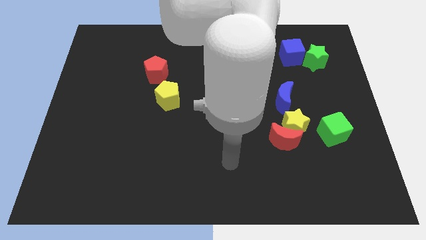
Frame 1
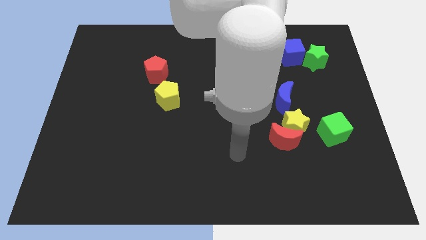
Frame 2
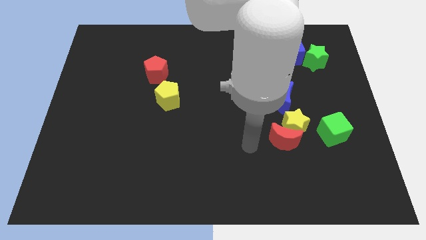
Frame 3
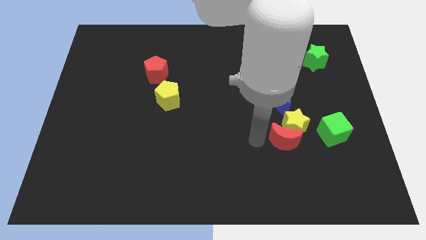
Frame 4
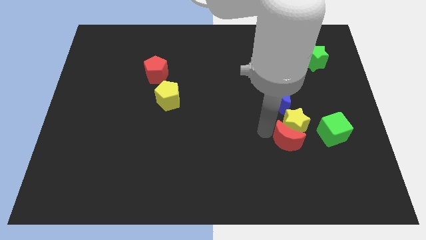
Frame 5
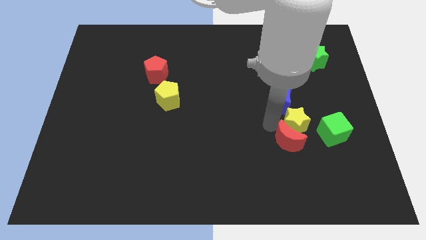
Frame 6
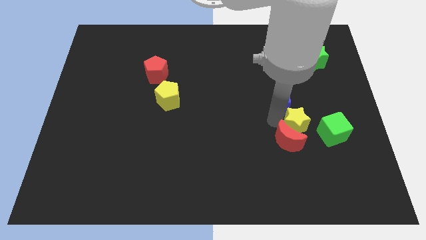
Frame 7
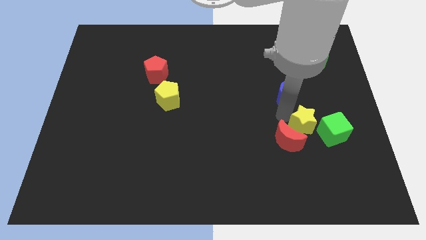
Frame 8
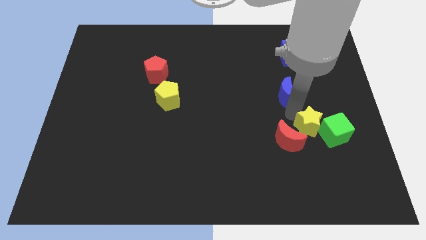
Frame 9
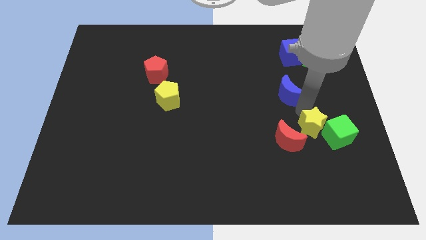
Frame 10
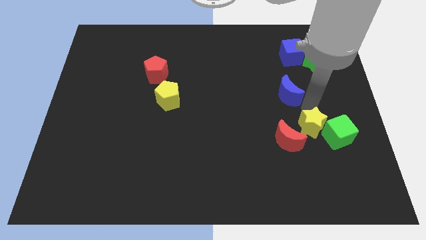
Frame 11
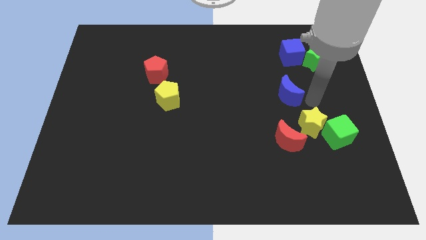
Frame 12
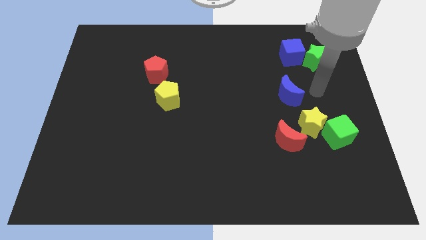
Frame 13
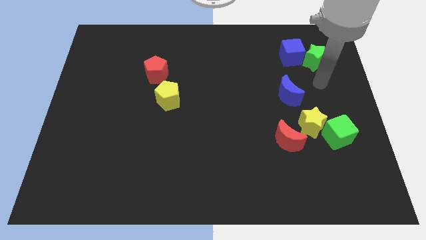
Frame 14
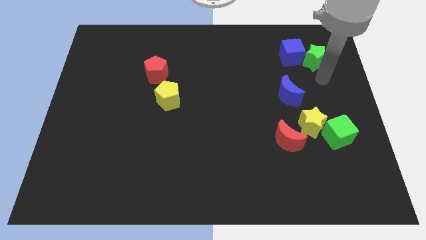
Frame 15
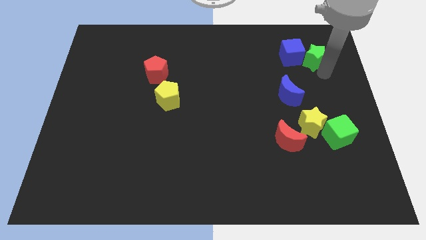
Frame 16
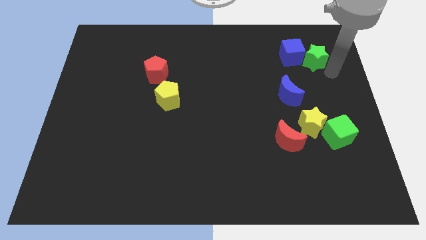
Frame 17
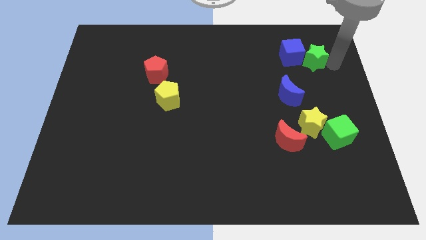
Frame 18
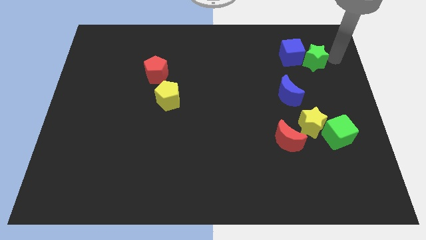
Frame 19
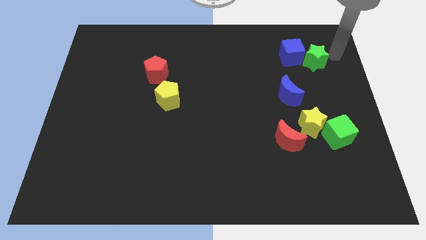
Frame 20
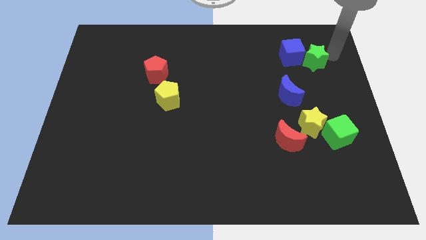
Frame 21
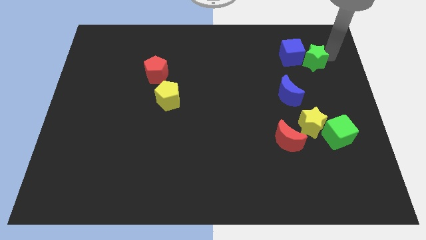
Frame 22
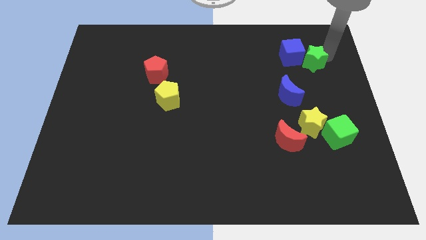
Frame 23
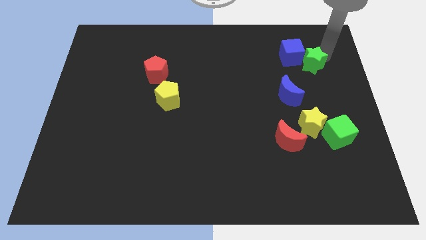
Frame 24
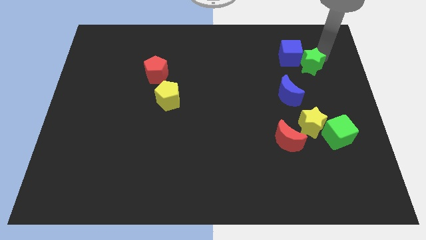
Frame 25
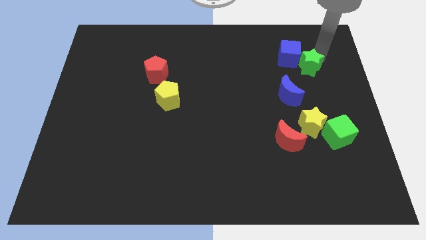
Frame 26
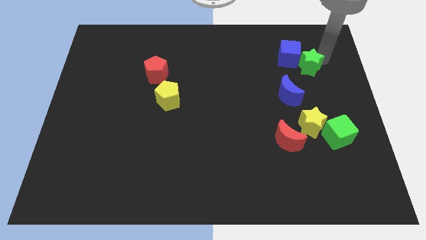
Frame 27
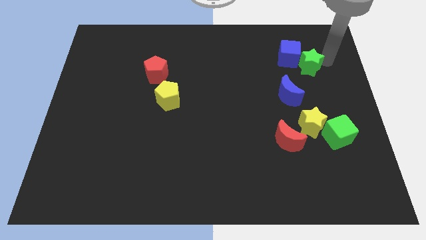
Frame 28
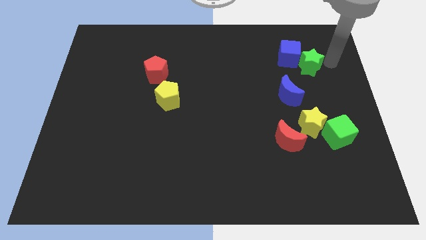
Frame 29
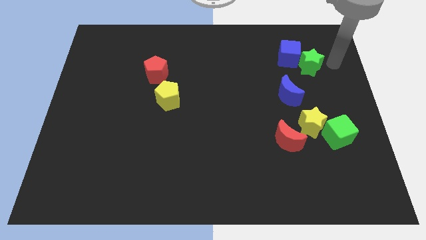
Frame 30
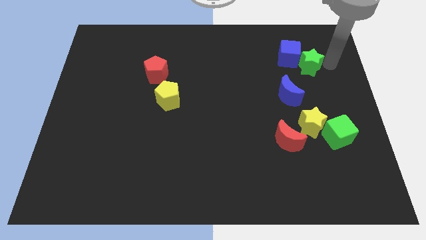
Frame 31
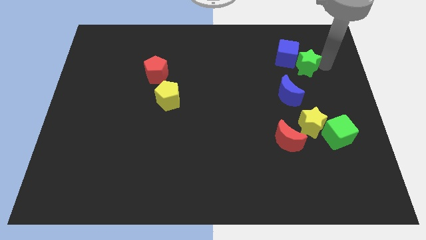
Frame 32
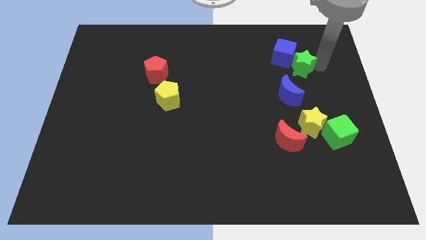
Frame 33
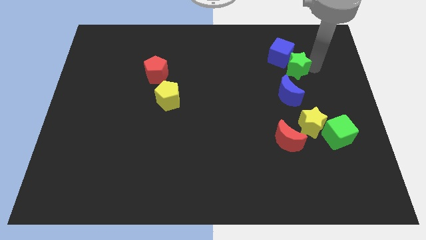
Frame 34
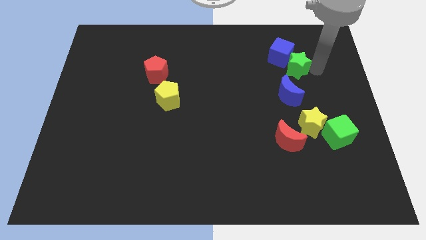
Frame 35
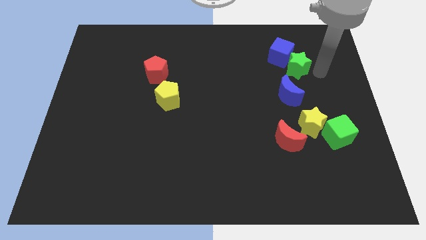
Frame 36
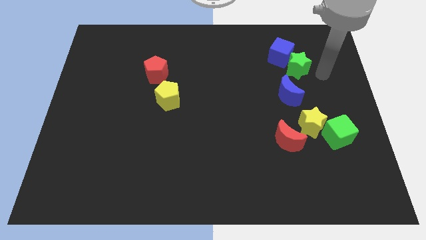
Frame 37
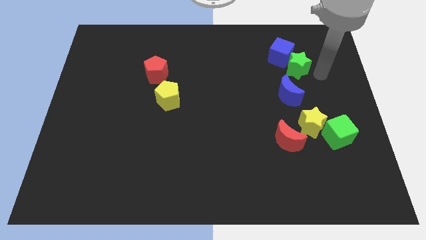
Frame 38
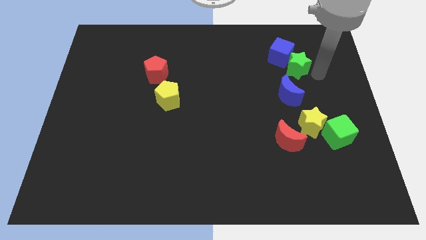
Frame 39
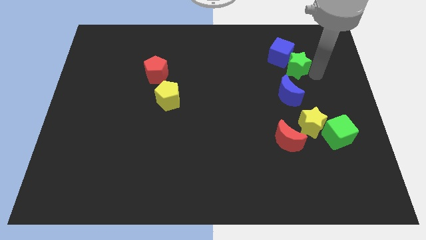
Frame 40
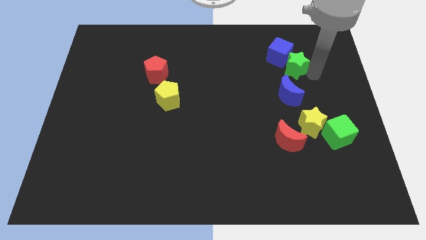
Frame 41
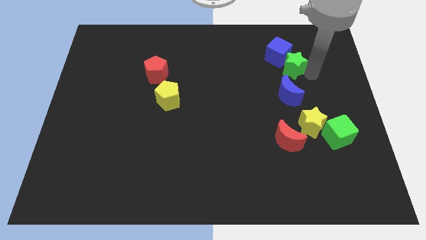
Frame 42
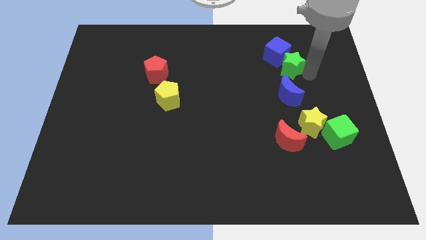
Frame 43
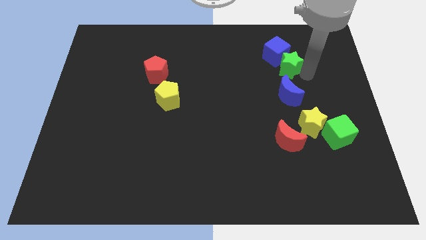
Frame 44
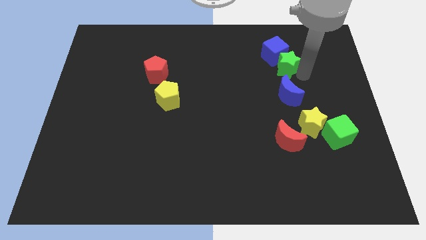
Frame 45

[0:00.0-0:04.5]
slide the green star left a little bit

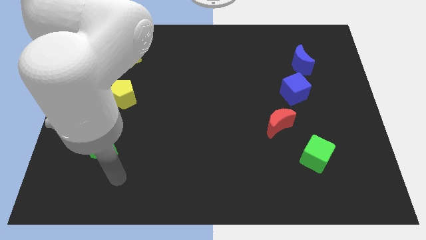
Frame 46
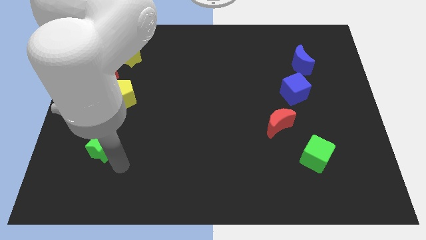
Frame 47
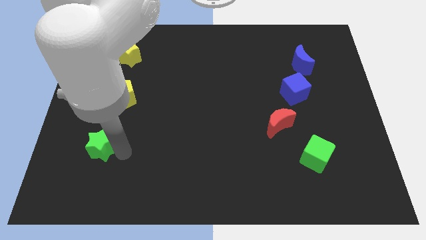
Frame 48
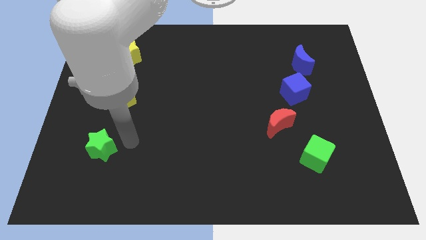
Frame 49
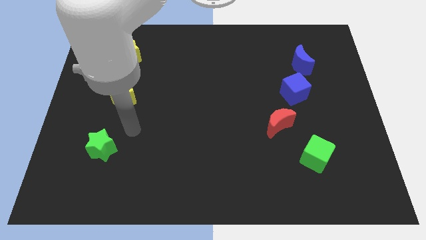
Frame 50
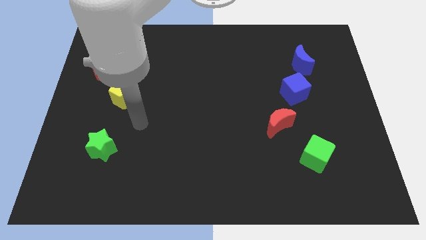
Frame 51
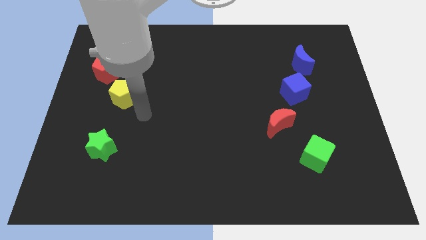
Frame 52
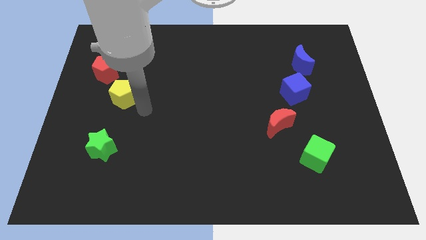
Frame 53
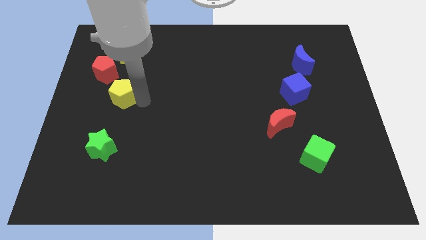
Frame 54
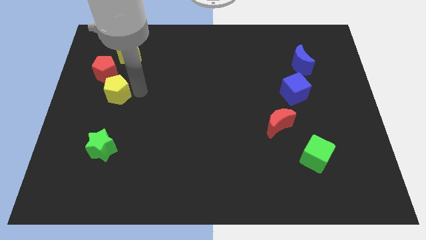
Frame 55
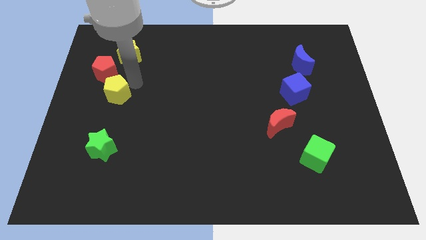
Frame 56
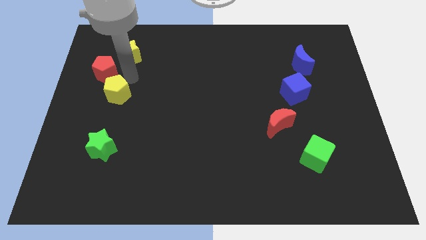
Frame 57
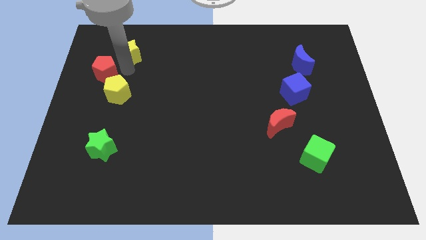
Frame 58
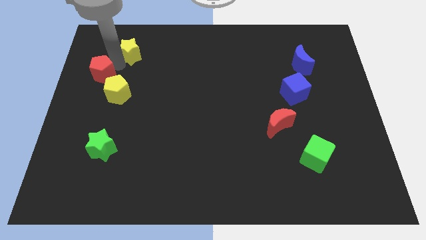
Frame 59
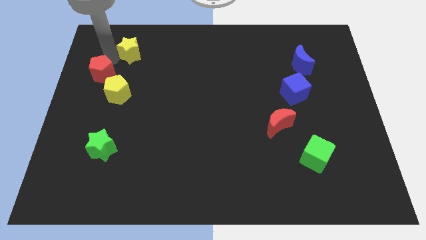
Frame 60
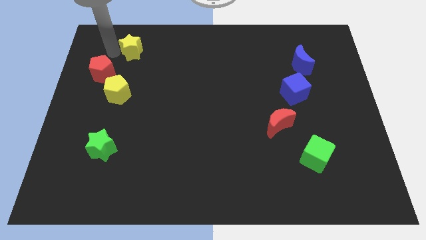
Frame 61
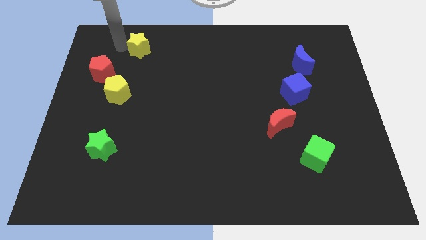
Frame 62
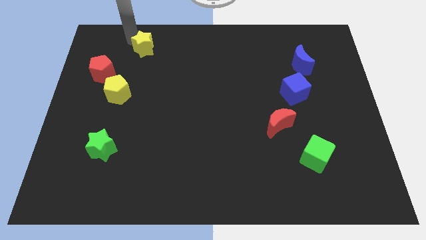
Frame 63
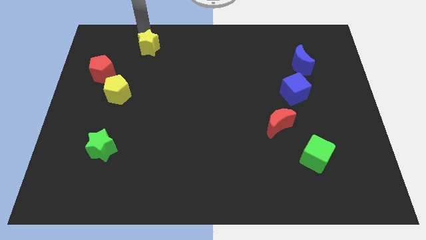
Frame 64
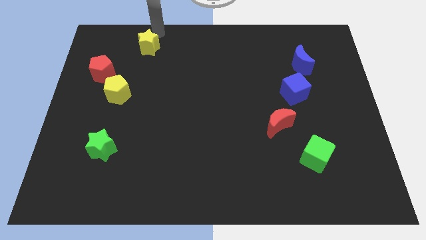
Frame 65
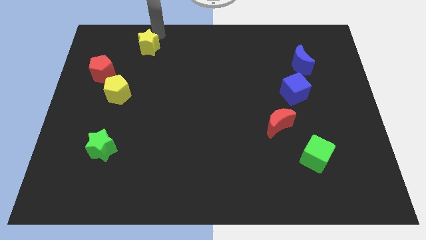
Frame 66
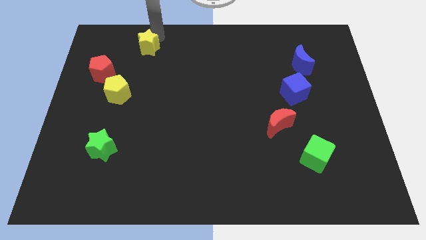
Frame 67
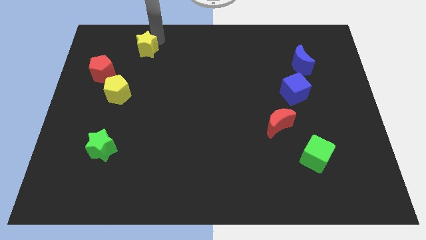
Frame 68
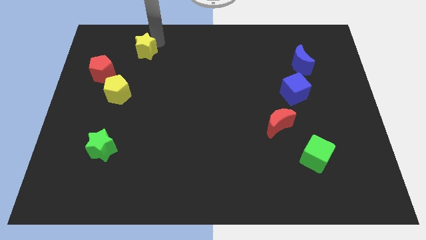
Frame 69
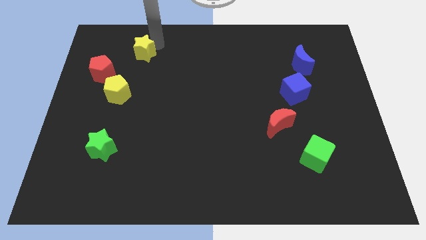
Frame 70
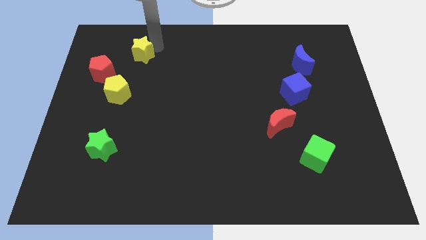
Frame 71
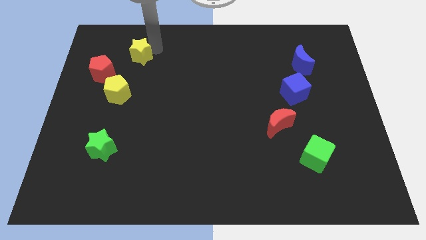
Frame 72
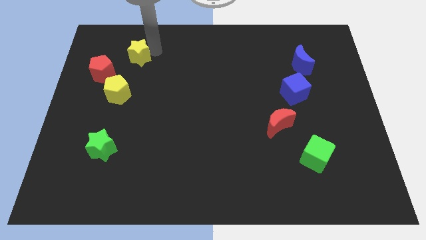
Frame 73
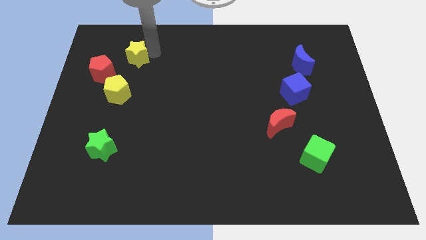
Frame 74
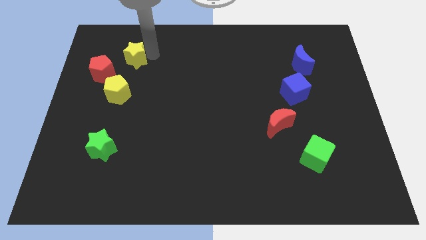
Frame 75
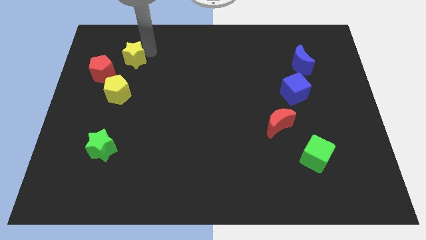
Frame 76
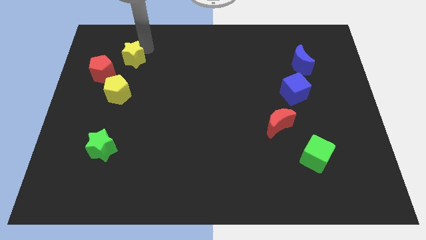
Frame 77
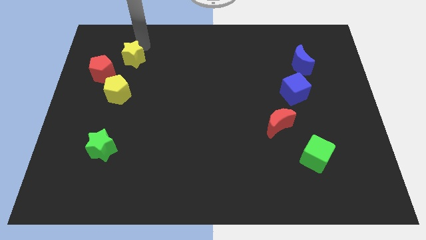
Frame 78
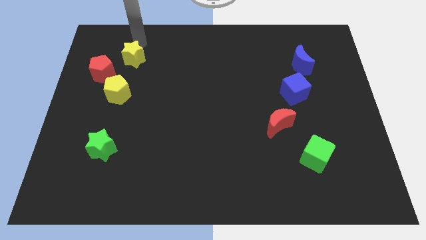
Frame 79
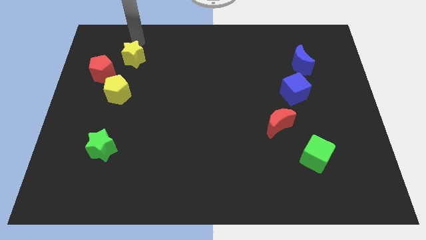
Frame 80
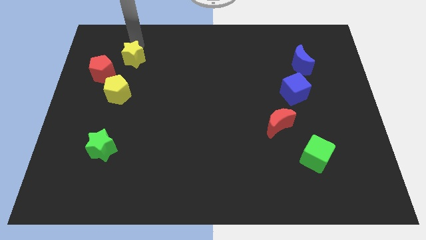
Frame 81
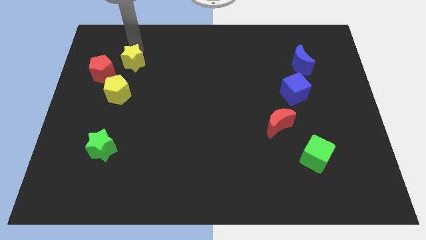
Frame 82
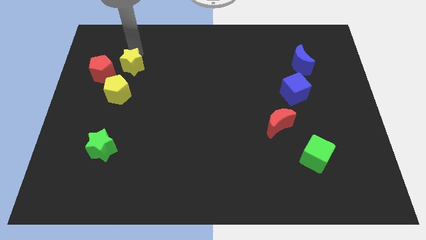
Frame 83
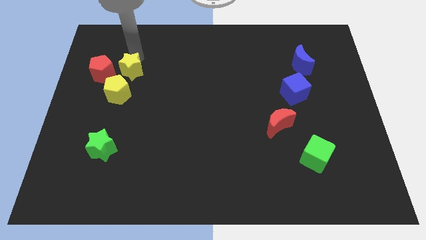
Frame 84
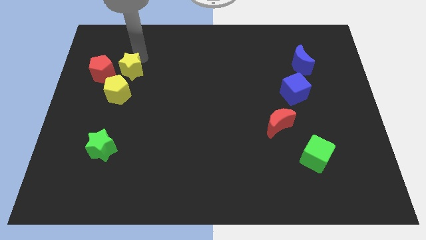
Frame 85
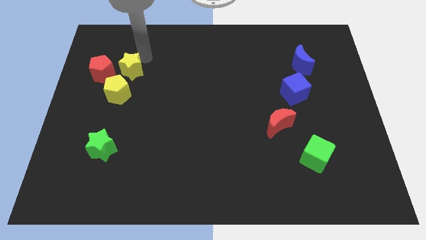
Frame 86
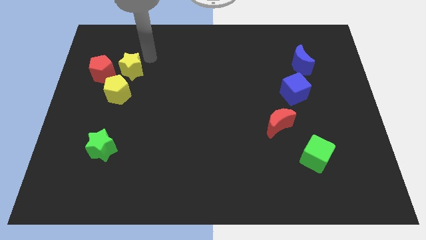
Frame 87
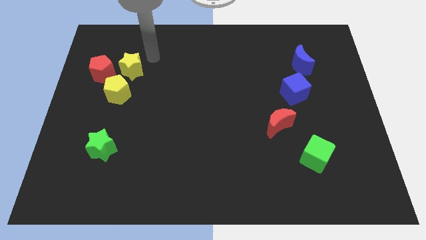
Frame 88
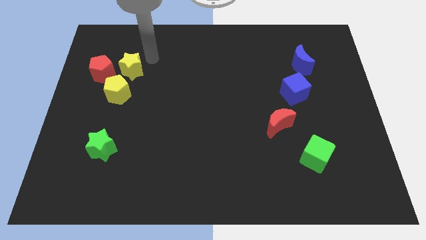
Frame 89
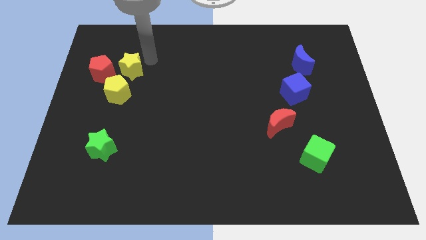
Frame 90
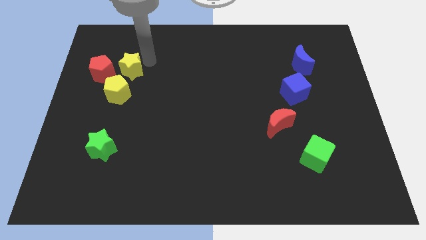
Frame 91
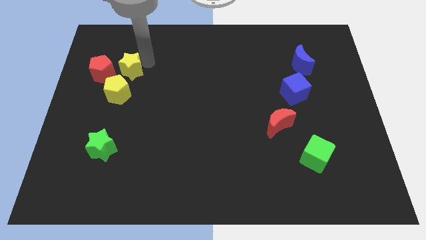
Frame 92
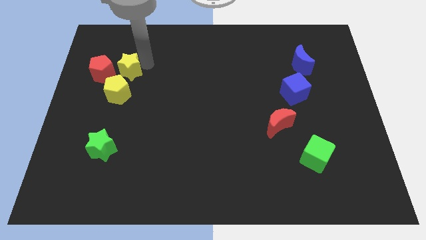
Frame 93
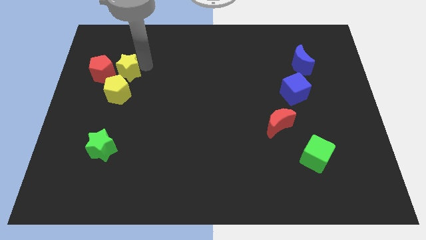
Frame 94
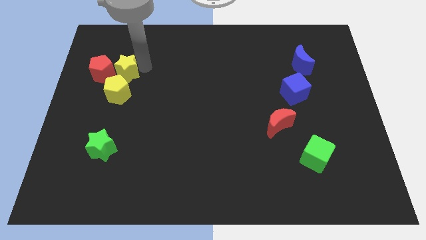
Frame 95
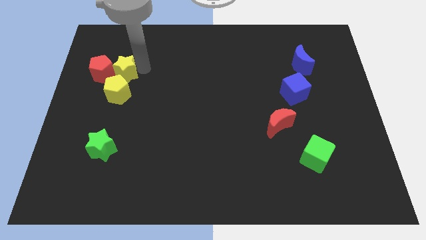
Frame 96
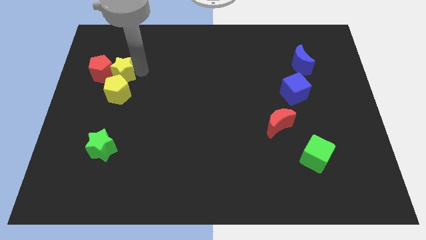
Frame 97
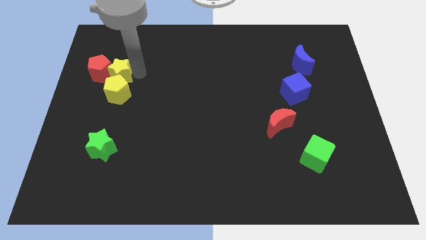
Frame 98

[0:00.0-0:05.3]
slide the yellow star downwards somewhat
